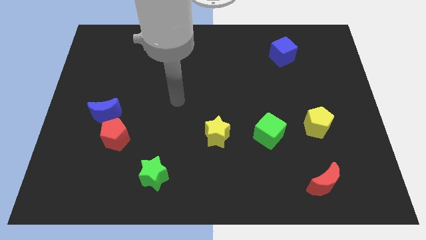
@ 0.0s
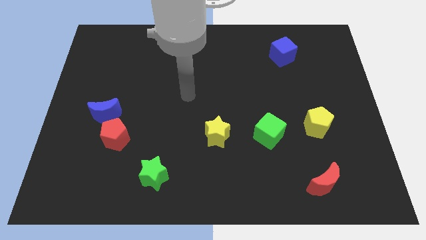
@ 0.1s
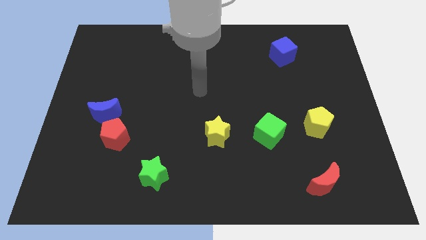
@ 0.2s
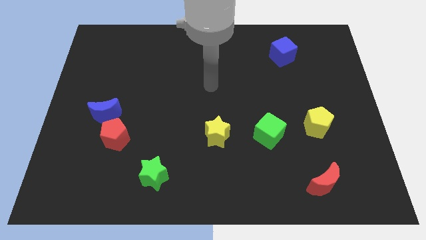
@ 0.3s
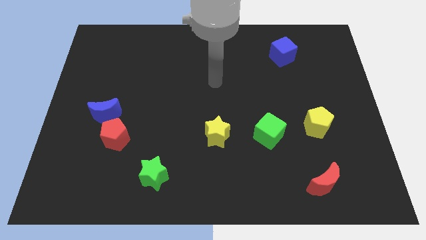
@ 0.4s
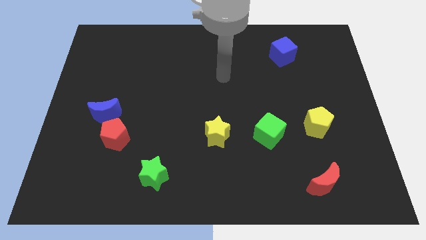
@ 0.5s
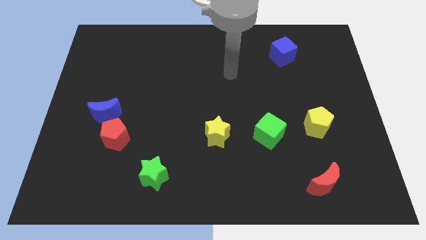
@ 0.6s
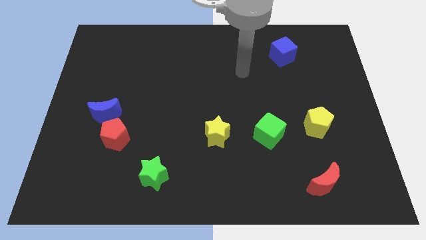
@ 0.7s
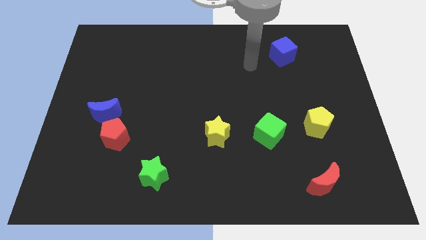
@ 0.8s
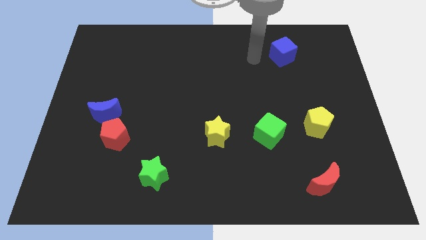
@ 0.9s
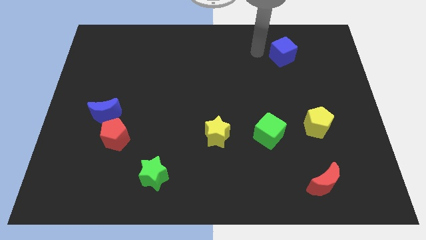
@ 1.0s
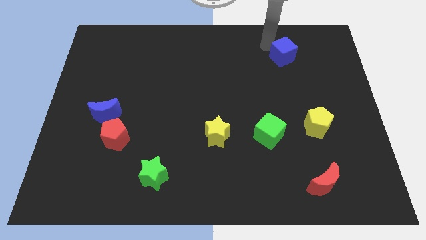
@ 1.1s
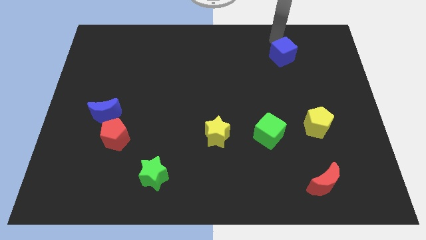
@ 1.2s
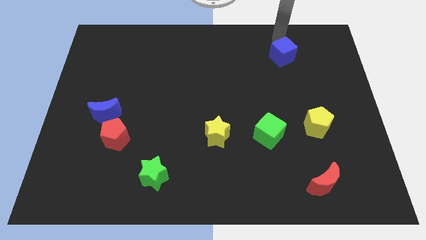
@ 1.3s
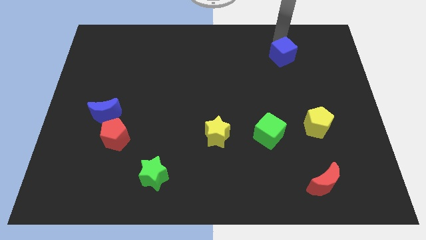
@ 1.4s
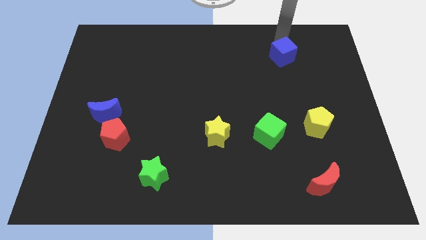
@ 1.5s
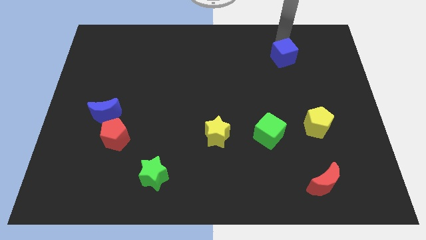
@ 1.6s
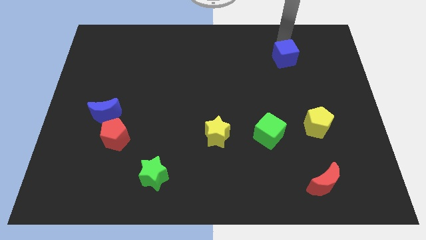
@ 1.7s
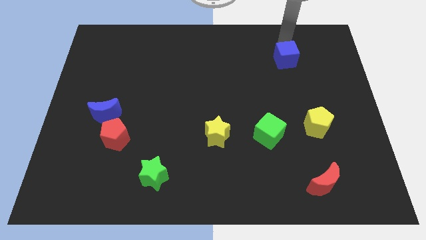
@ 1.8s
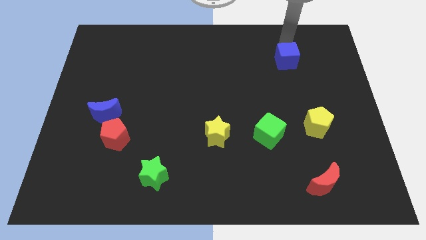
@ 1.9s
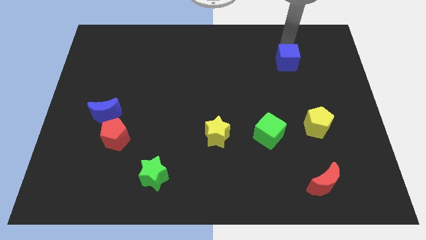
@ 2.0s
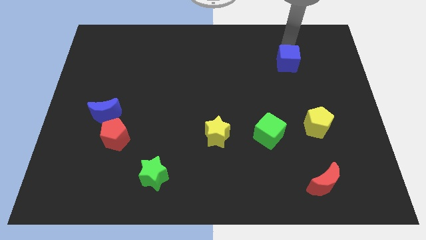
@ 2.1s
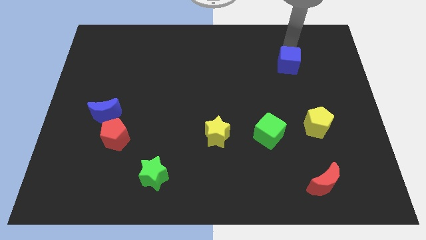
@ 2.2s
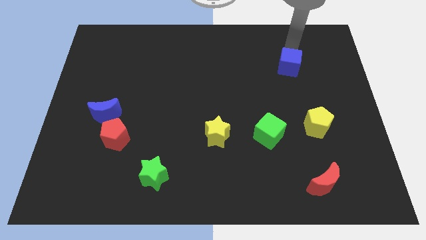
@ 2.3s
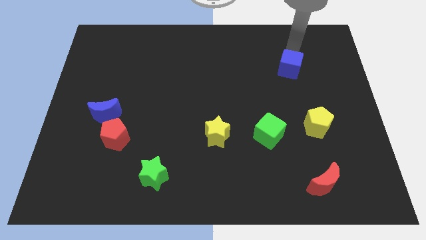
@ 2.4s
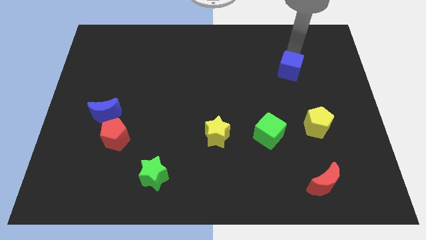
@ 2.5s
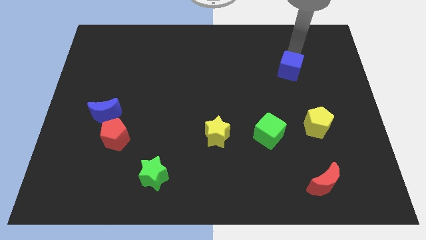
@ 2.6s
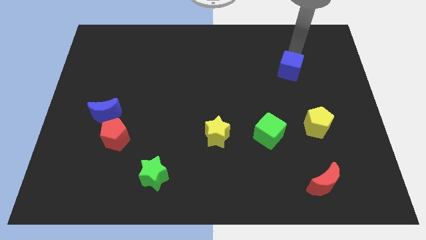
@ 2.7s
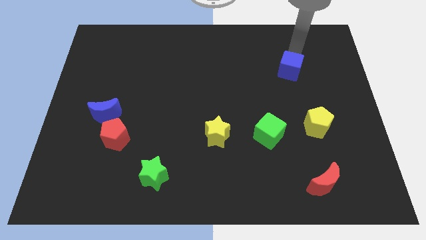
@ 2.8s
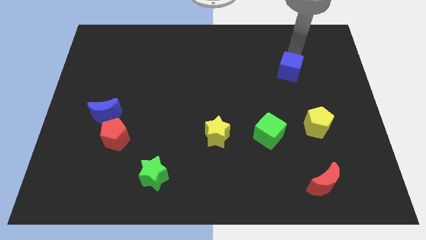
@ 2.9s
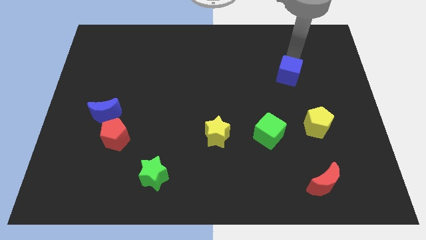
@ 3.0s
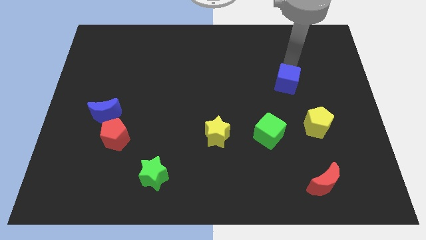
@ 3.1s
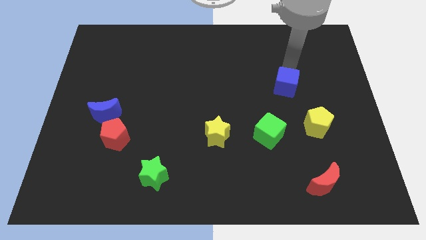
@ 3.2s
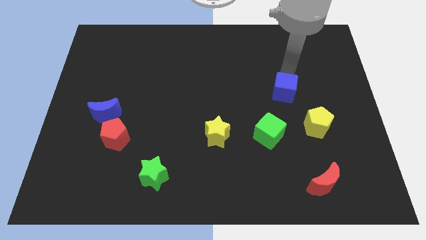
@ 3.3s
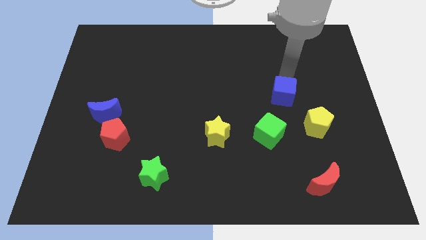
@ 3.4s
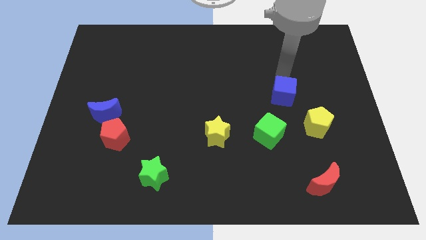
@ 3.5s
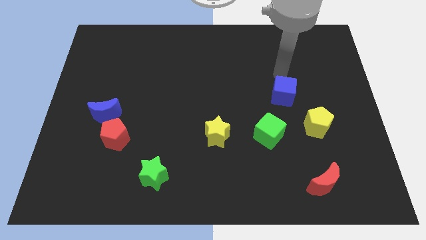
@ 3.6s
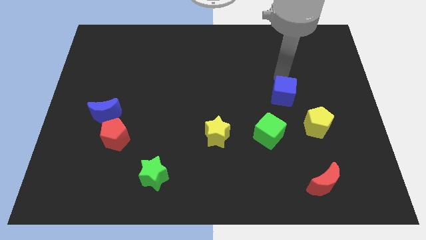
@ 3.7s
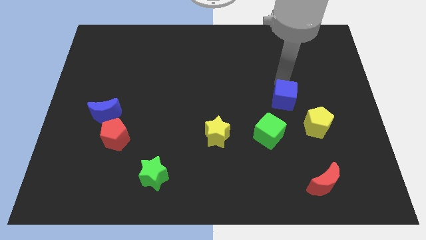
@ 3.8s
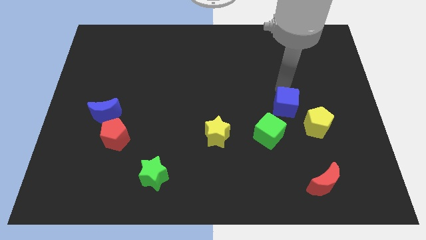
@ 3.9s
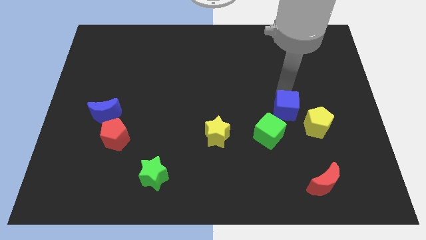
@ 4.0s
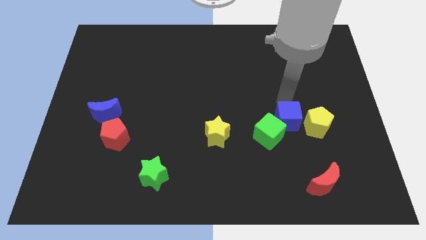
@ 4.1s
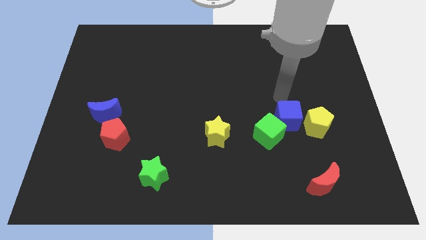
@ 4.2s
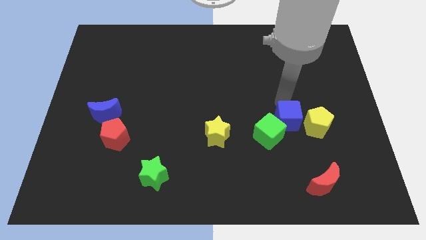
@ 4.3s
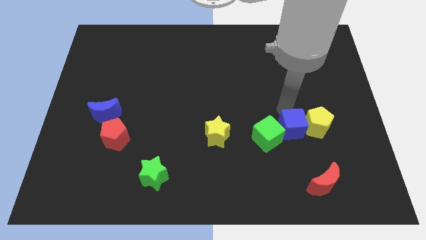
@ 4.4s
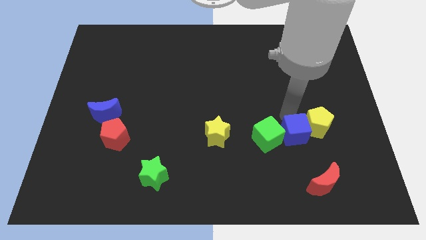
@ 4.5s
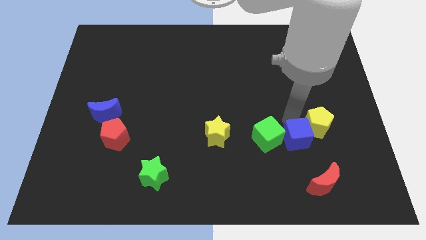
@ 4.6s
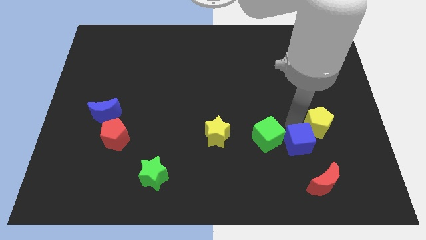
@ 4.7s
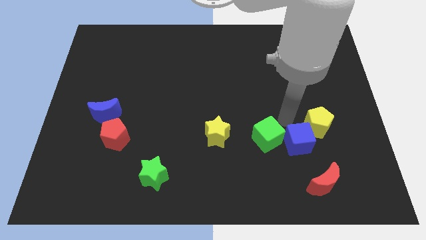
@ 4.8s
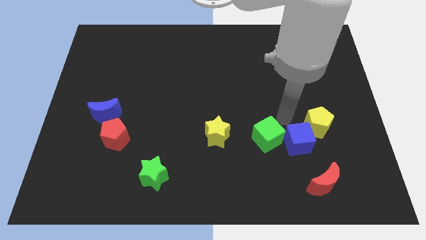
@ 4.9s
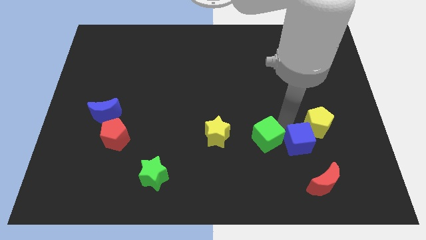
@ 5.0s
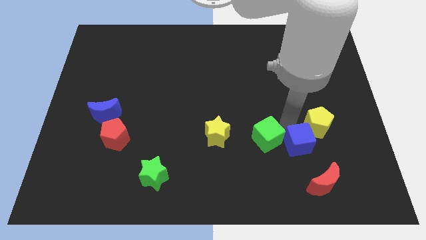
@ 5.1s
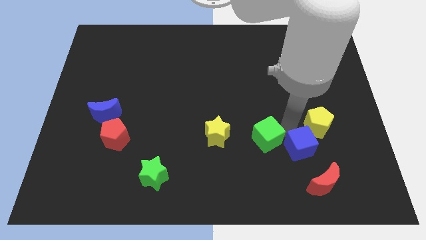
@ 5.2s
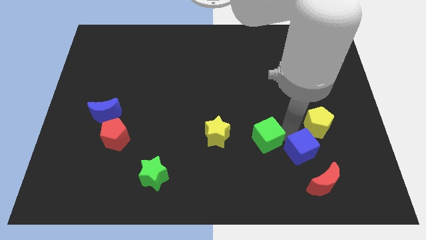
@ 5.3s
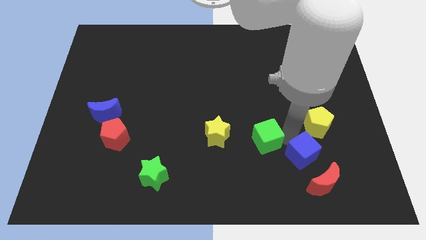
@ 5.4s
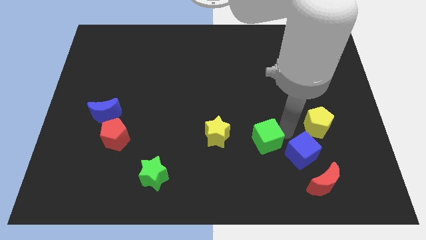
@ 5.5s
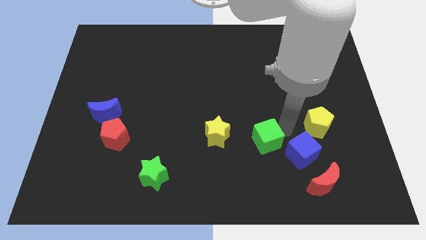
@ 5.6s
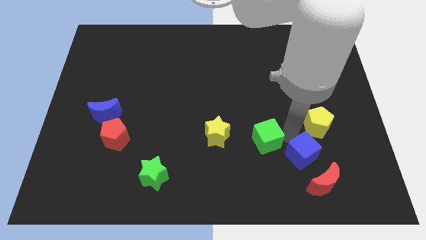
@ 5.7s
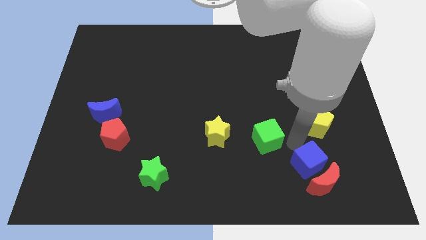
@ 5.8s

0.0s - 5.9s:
move the blue cube next to the red moon

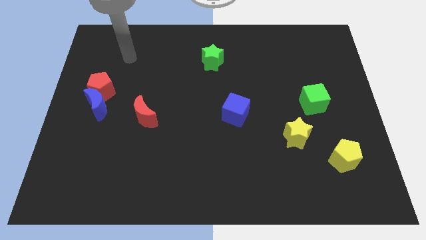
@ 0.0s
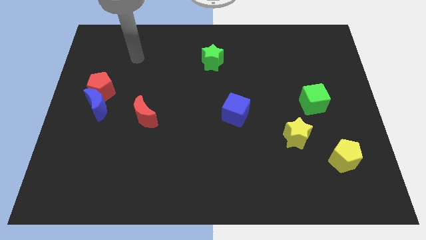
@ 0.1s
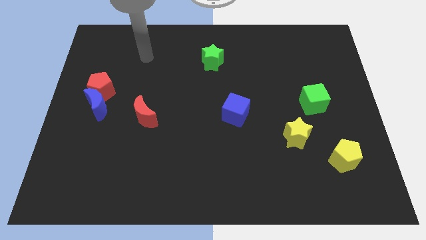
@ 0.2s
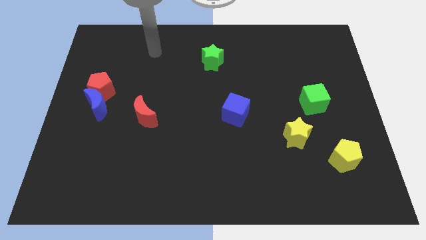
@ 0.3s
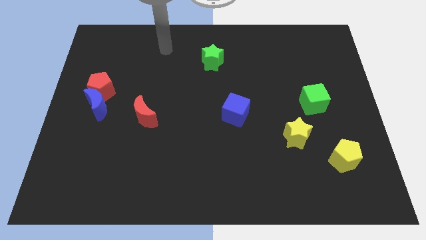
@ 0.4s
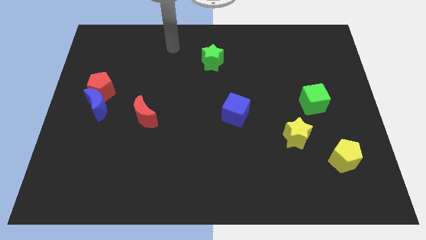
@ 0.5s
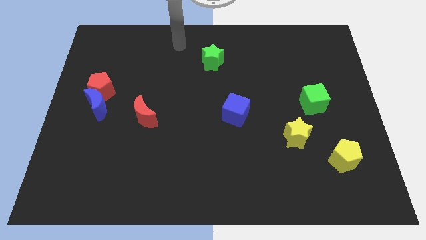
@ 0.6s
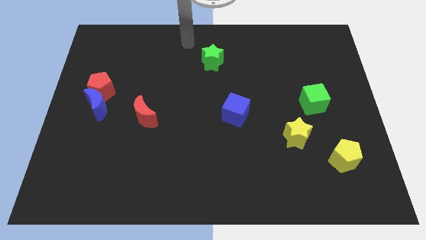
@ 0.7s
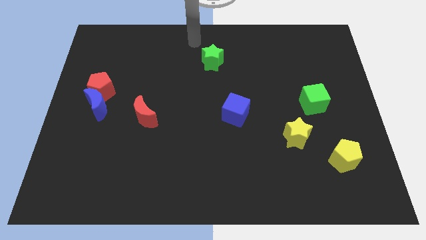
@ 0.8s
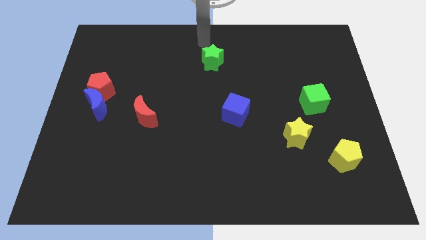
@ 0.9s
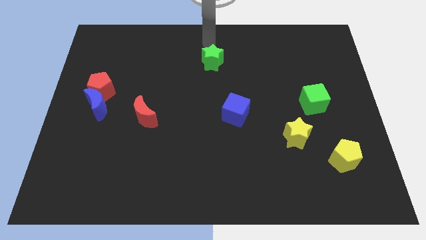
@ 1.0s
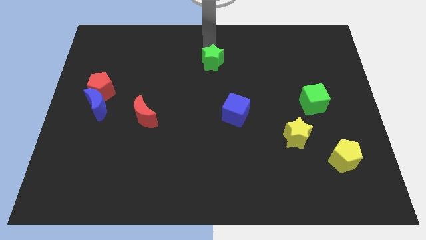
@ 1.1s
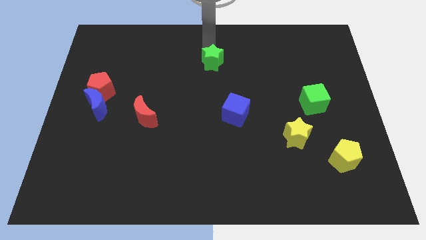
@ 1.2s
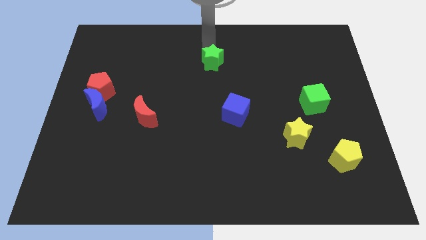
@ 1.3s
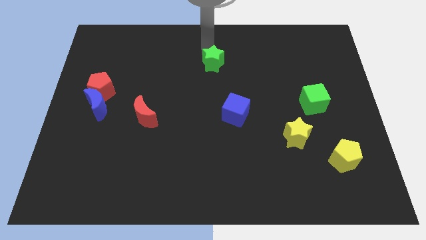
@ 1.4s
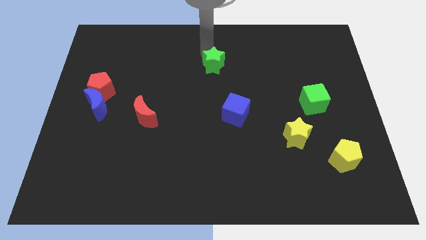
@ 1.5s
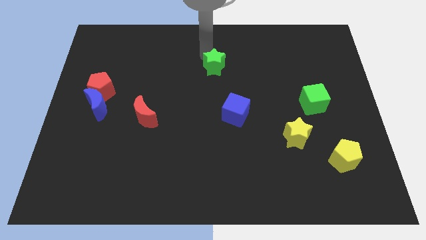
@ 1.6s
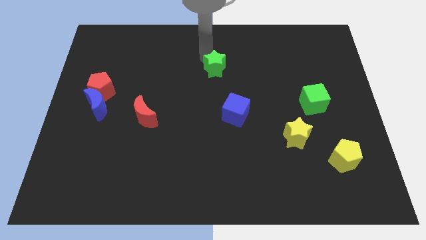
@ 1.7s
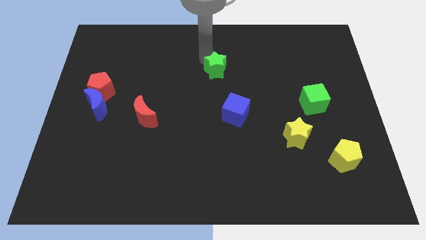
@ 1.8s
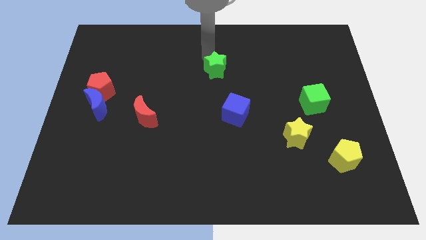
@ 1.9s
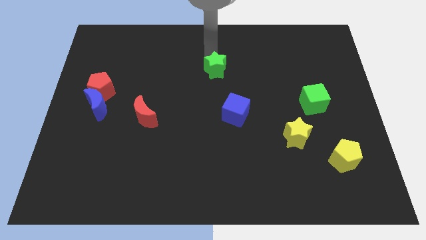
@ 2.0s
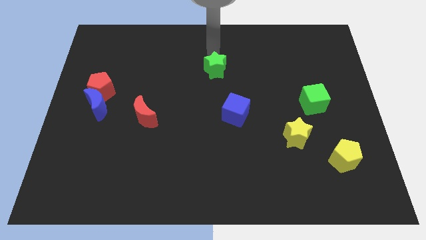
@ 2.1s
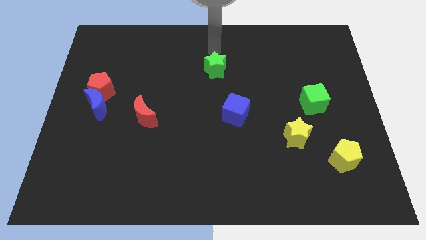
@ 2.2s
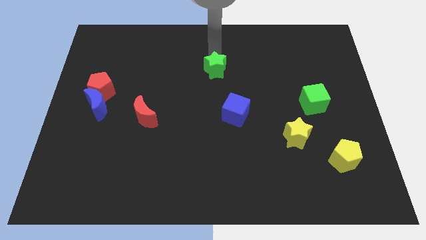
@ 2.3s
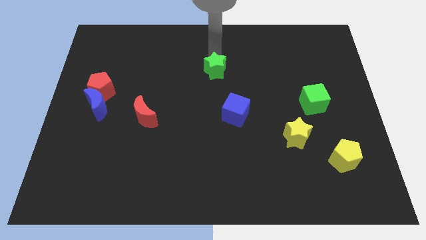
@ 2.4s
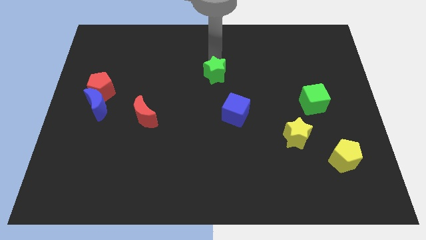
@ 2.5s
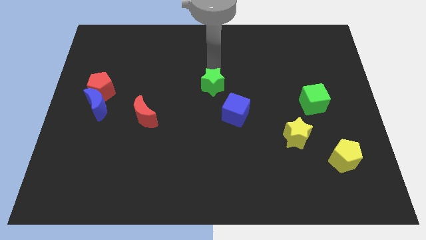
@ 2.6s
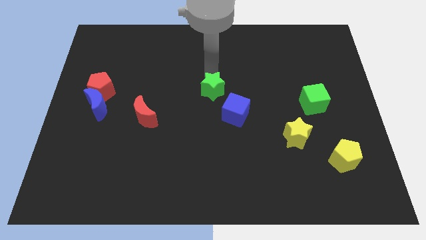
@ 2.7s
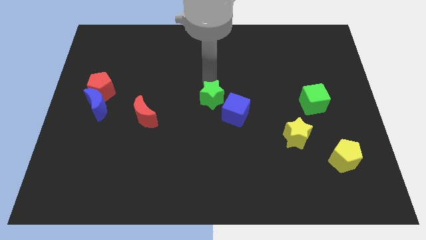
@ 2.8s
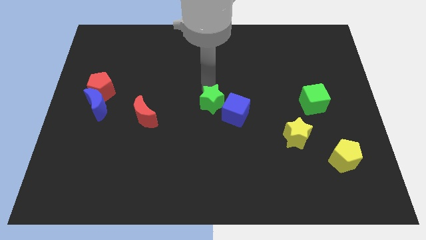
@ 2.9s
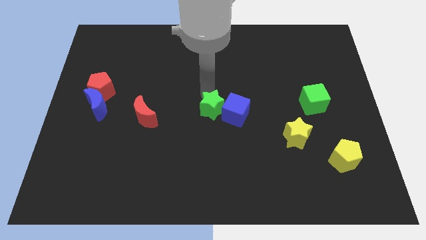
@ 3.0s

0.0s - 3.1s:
push the green star close to the blue cube
